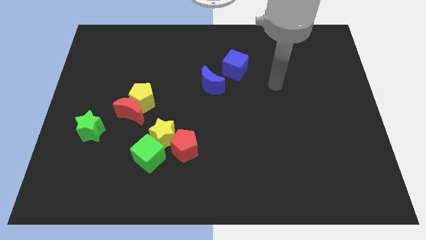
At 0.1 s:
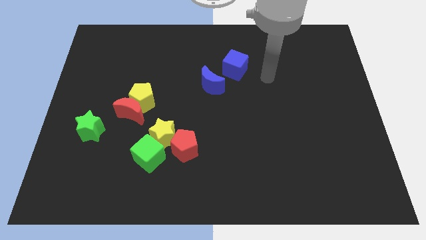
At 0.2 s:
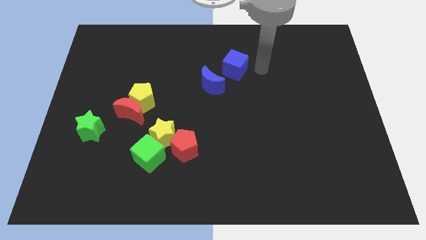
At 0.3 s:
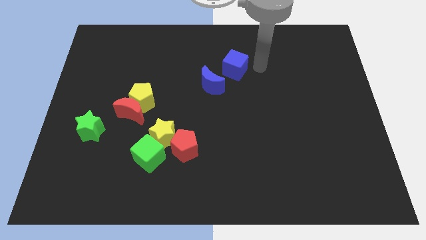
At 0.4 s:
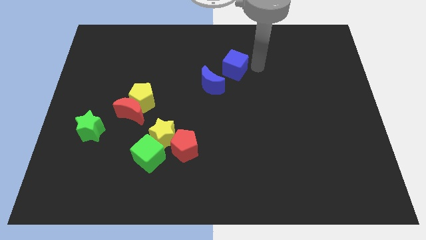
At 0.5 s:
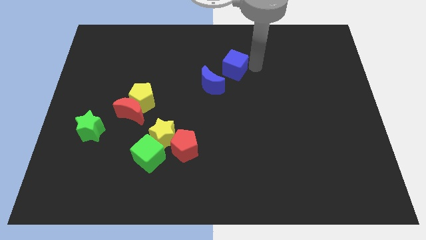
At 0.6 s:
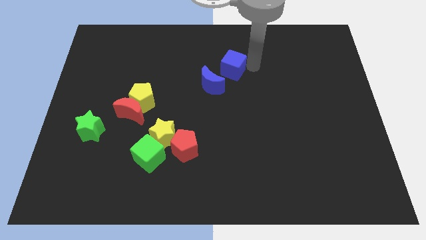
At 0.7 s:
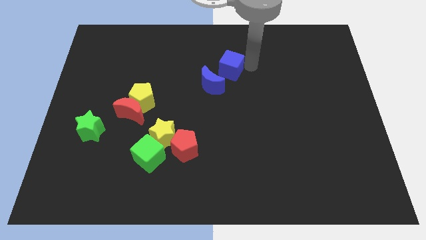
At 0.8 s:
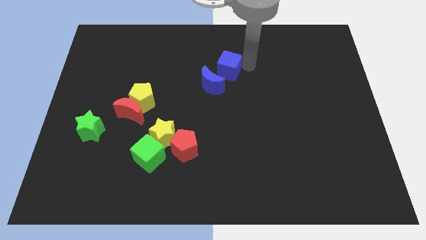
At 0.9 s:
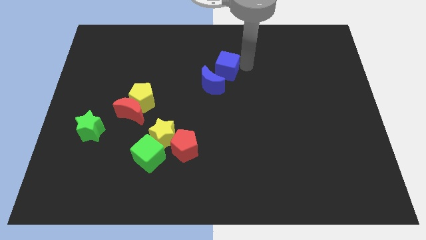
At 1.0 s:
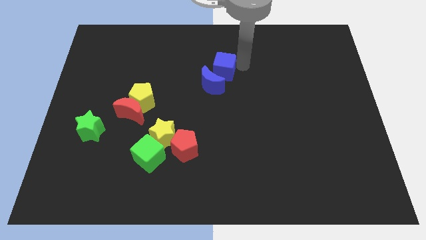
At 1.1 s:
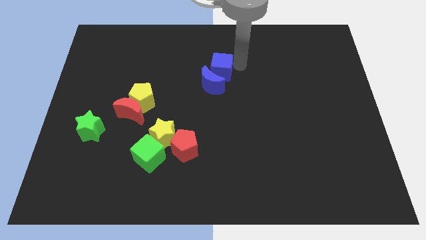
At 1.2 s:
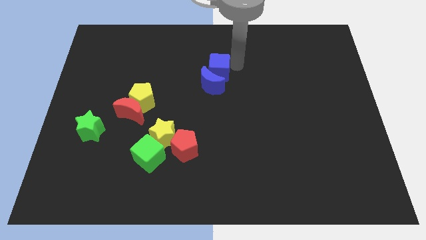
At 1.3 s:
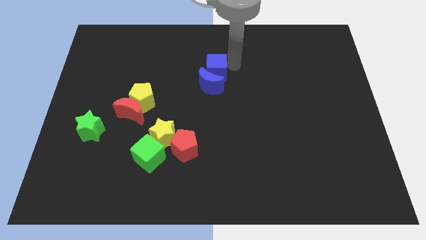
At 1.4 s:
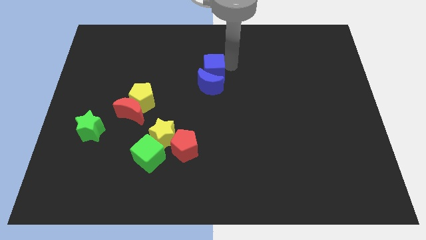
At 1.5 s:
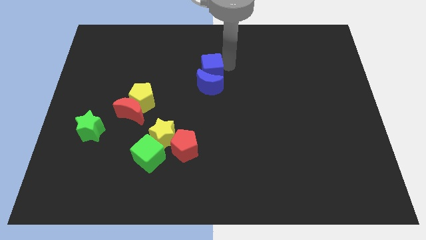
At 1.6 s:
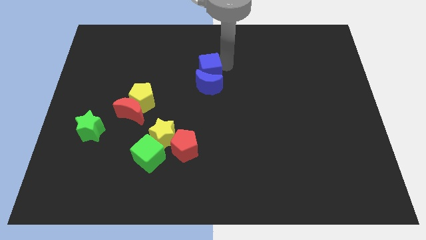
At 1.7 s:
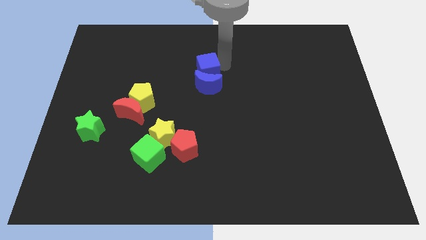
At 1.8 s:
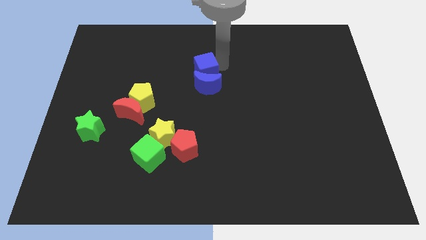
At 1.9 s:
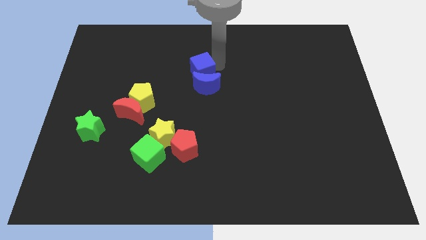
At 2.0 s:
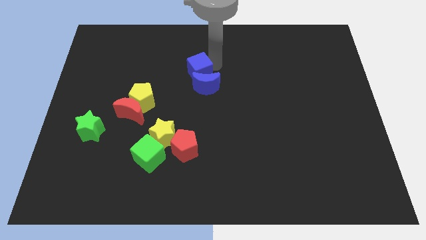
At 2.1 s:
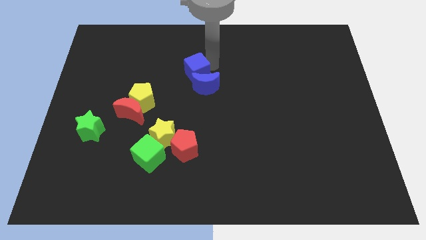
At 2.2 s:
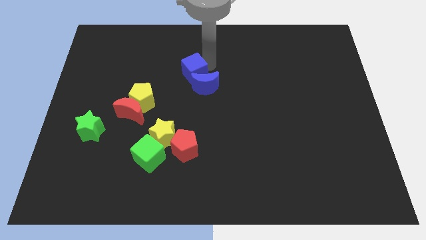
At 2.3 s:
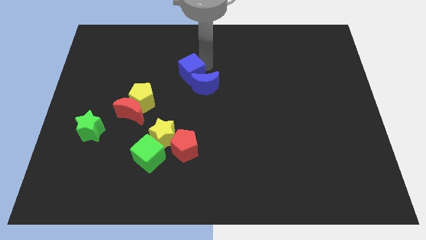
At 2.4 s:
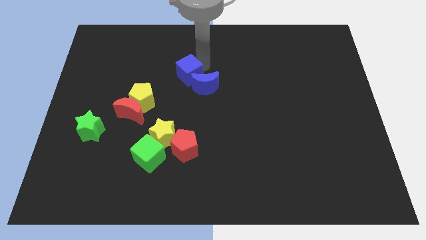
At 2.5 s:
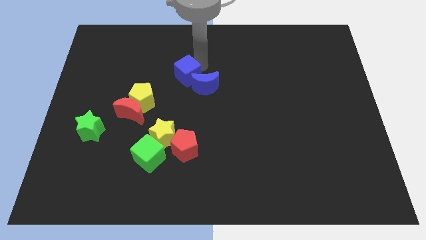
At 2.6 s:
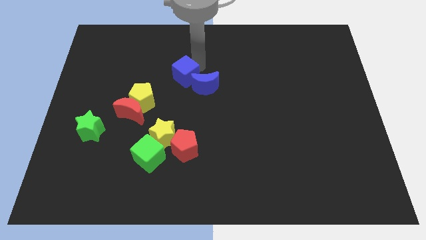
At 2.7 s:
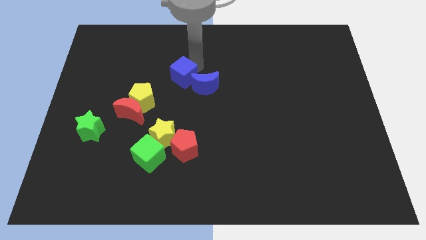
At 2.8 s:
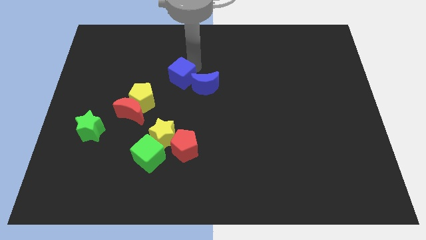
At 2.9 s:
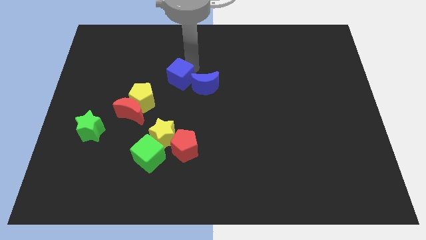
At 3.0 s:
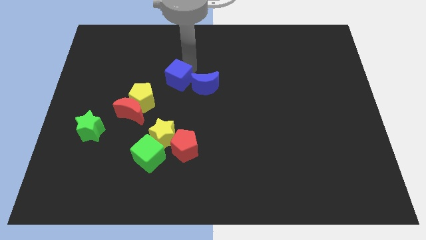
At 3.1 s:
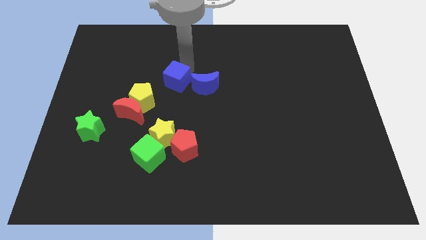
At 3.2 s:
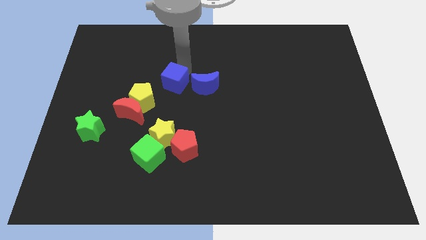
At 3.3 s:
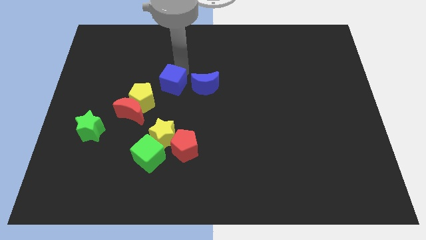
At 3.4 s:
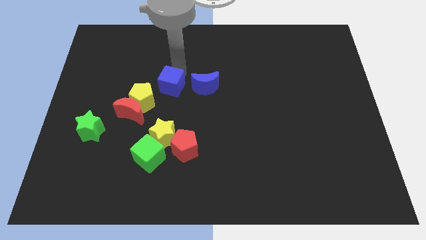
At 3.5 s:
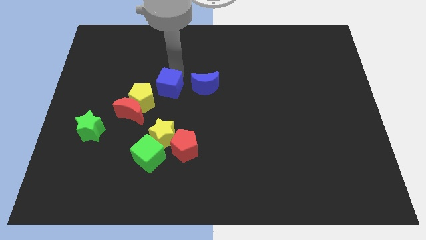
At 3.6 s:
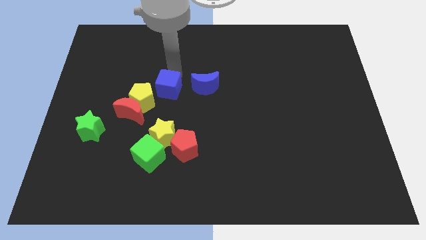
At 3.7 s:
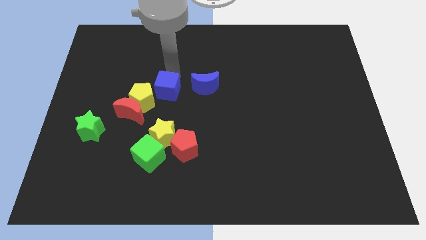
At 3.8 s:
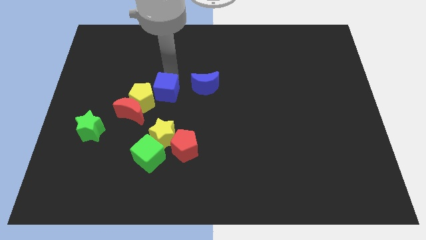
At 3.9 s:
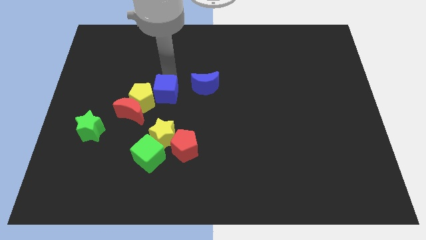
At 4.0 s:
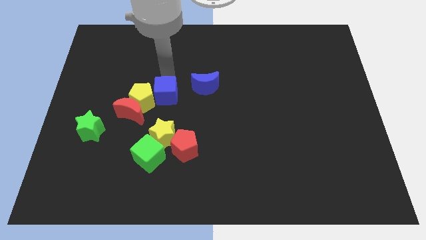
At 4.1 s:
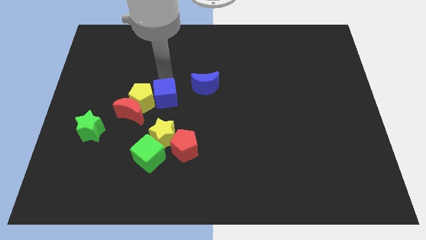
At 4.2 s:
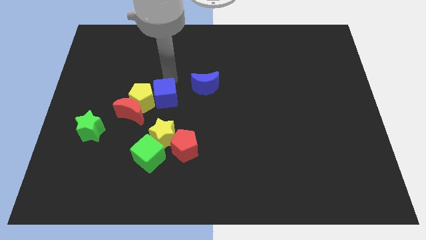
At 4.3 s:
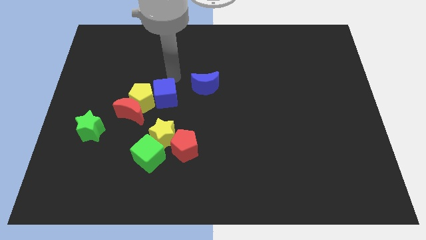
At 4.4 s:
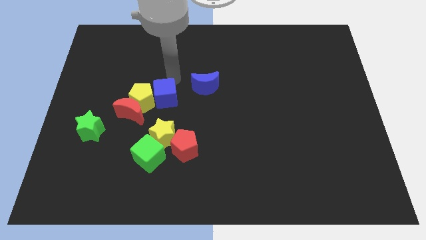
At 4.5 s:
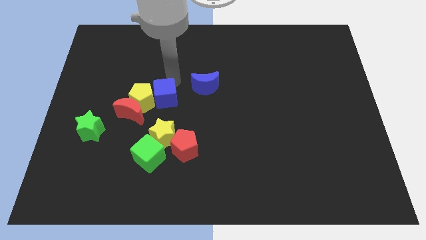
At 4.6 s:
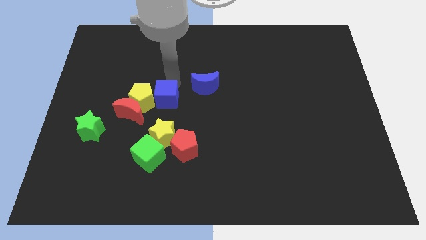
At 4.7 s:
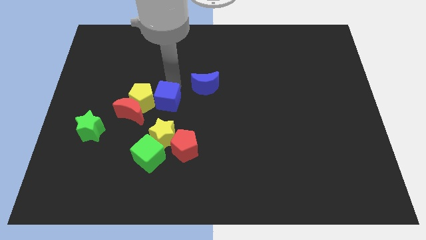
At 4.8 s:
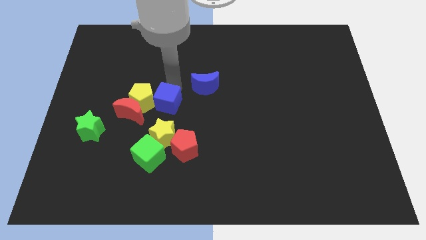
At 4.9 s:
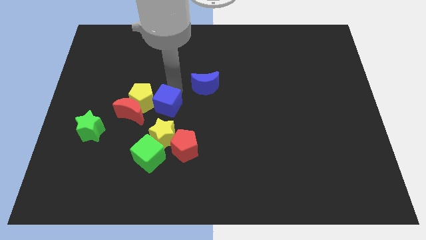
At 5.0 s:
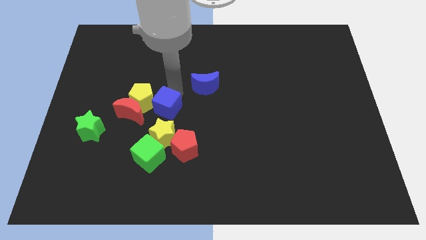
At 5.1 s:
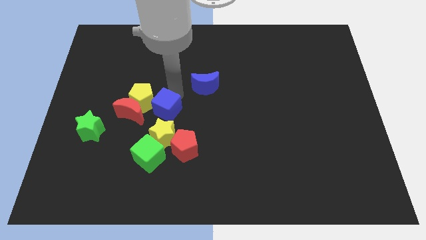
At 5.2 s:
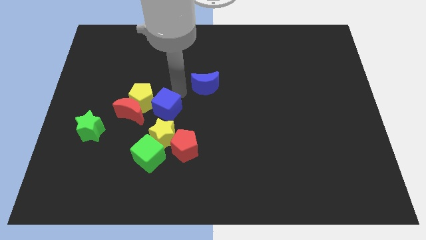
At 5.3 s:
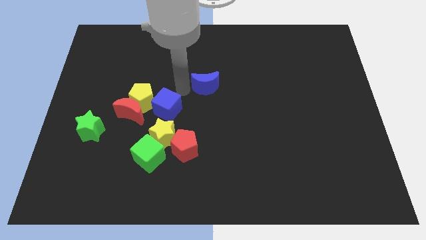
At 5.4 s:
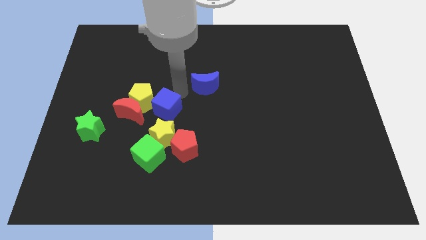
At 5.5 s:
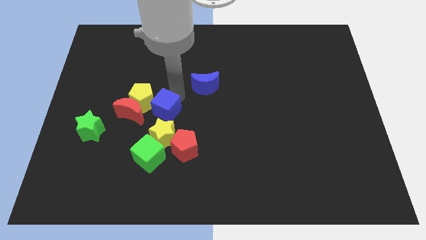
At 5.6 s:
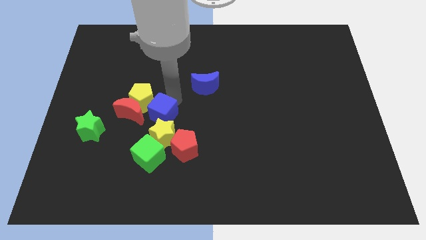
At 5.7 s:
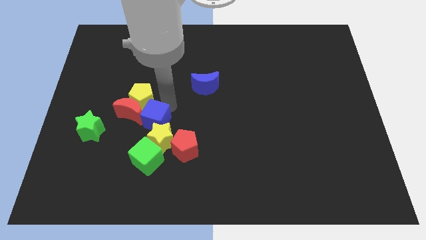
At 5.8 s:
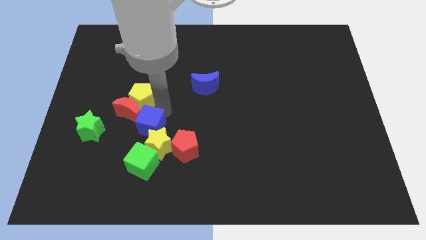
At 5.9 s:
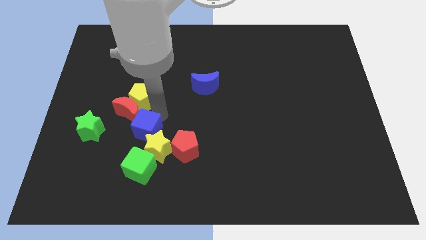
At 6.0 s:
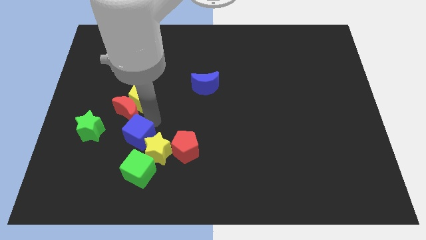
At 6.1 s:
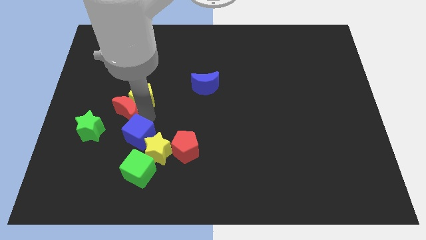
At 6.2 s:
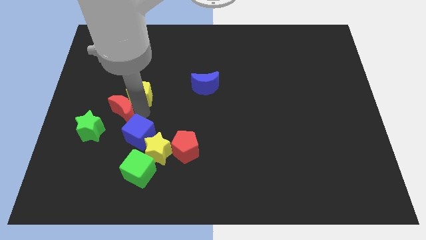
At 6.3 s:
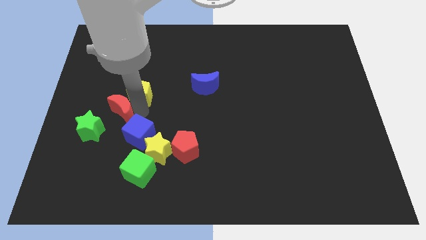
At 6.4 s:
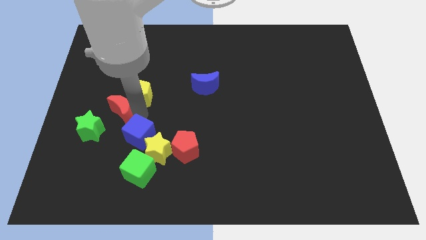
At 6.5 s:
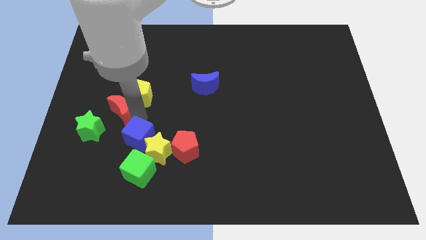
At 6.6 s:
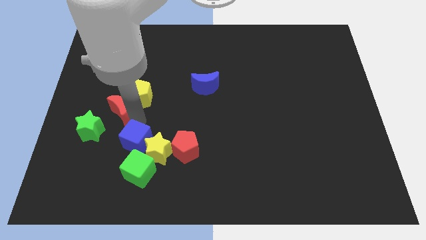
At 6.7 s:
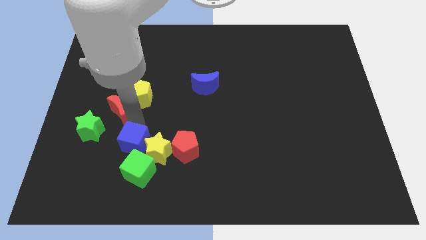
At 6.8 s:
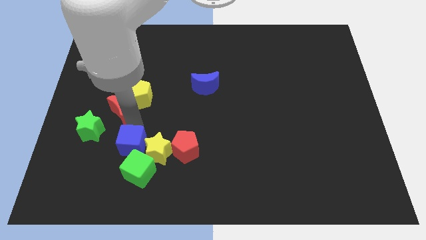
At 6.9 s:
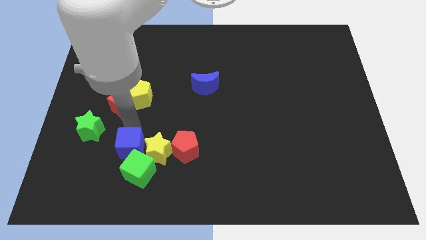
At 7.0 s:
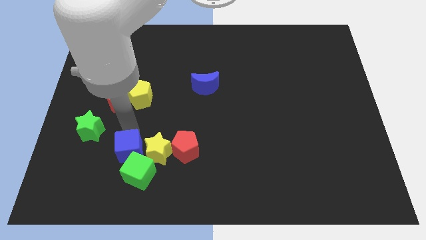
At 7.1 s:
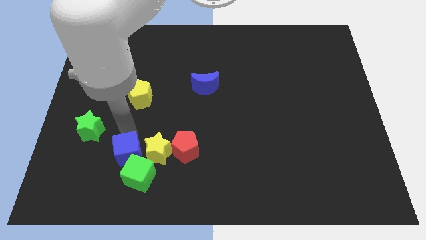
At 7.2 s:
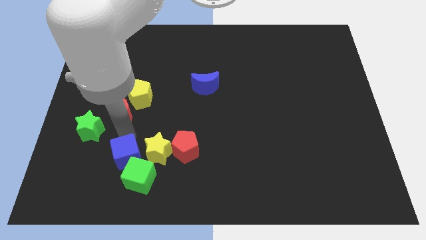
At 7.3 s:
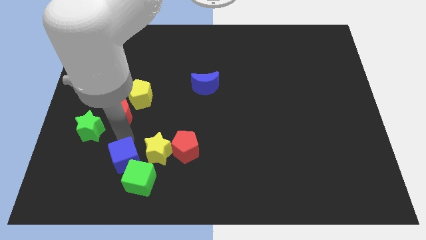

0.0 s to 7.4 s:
put the blue cube towards the green cube

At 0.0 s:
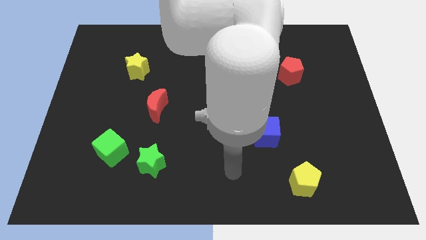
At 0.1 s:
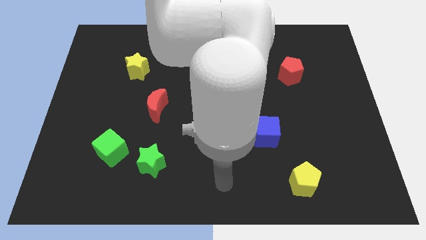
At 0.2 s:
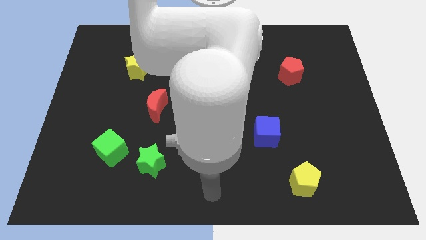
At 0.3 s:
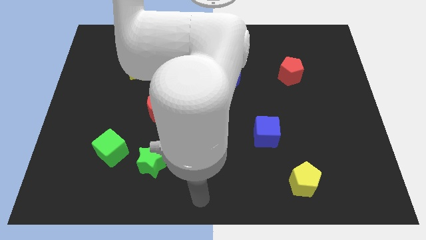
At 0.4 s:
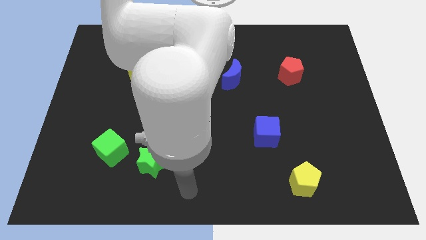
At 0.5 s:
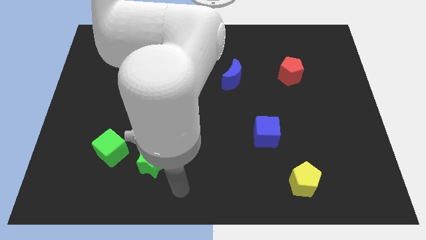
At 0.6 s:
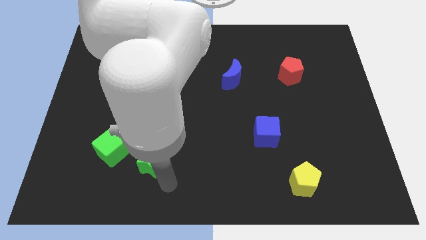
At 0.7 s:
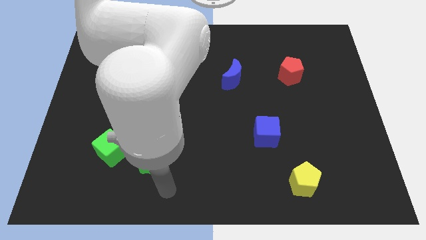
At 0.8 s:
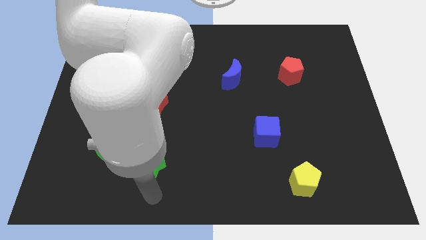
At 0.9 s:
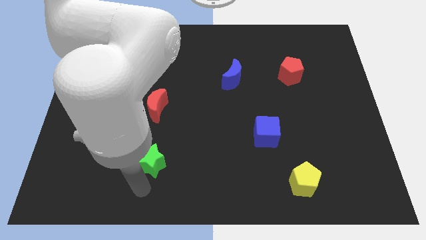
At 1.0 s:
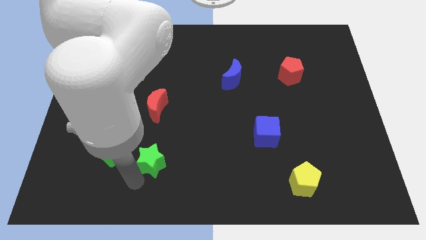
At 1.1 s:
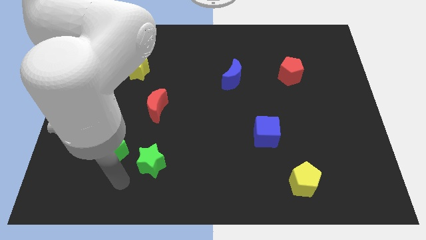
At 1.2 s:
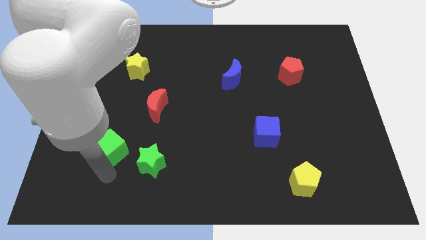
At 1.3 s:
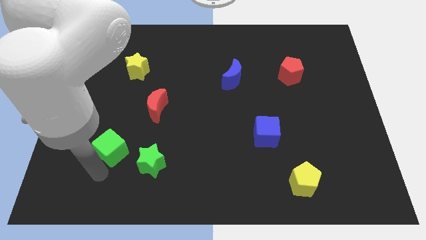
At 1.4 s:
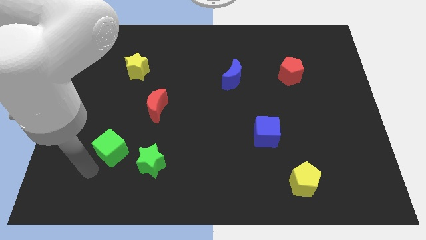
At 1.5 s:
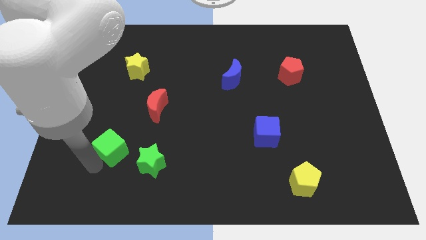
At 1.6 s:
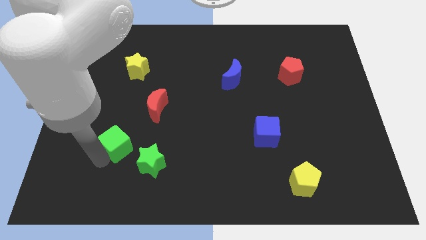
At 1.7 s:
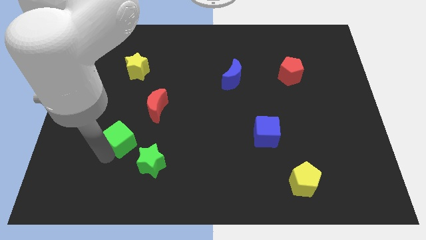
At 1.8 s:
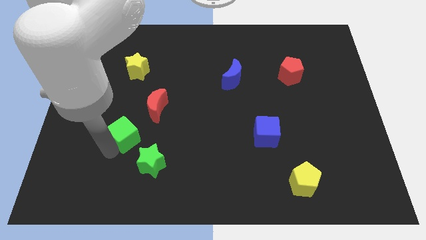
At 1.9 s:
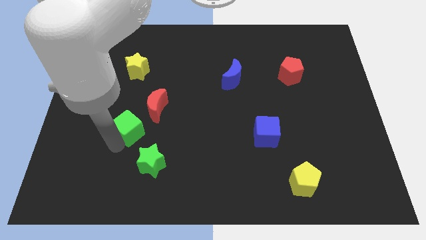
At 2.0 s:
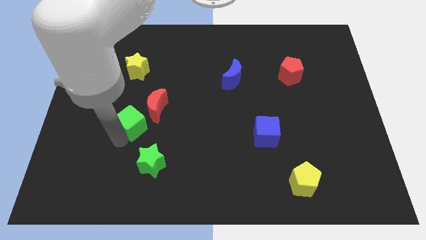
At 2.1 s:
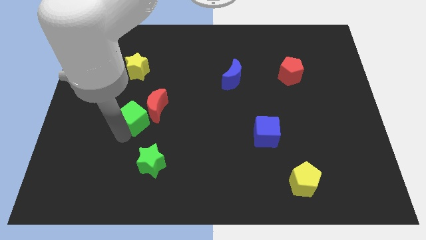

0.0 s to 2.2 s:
slide the green cube towards the red moon
